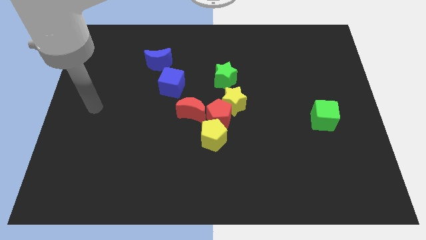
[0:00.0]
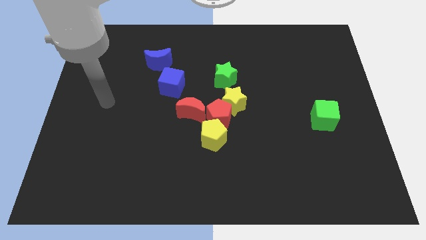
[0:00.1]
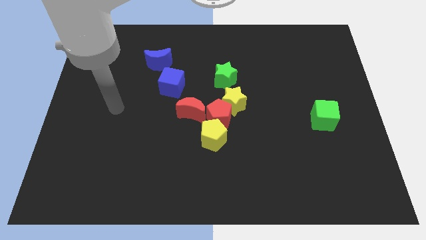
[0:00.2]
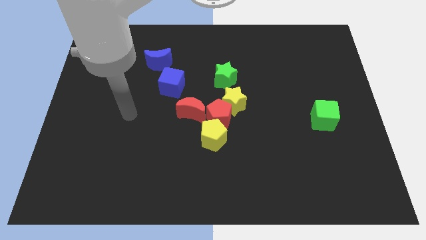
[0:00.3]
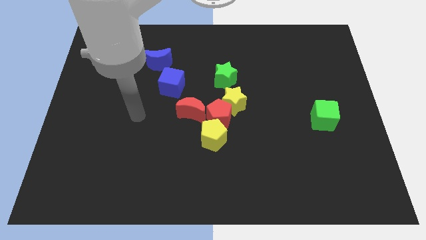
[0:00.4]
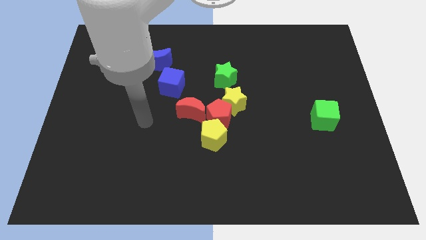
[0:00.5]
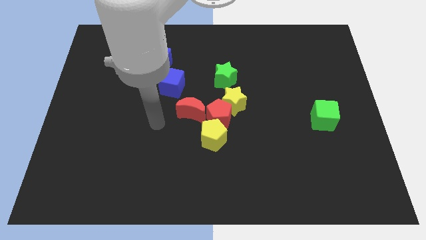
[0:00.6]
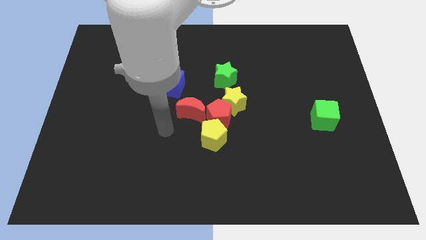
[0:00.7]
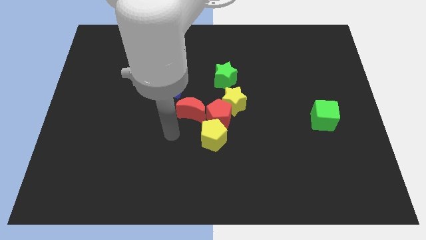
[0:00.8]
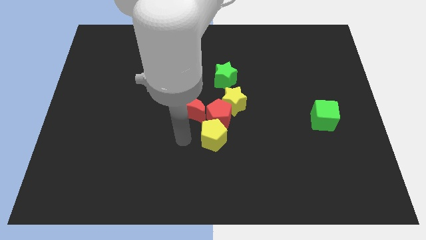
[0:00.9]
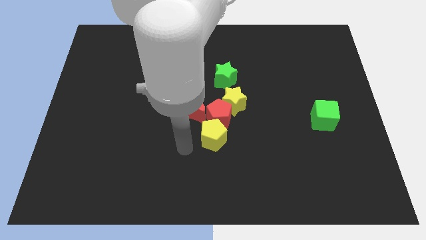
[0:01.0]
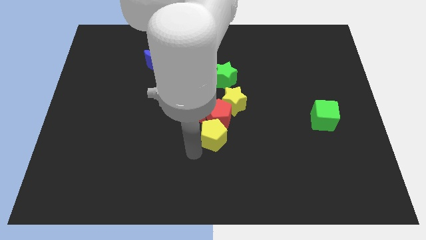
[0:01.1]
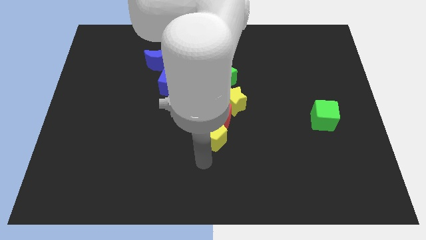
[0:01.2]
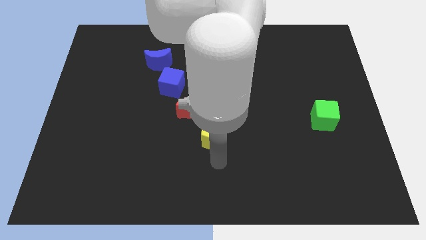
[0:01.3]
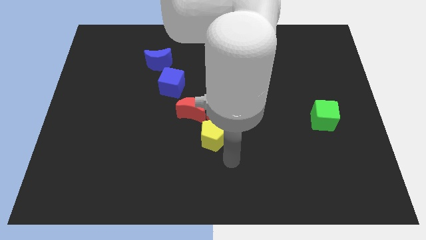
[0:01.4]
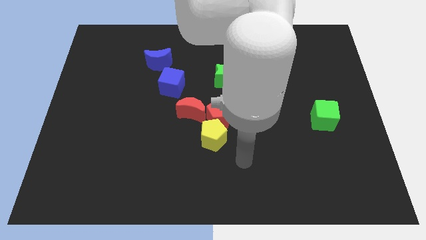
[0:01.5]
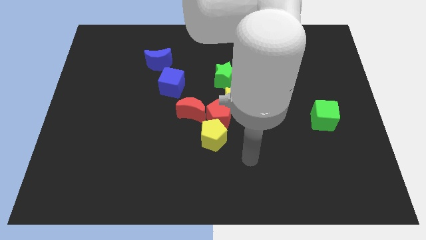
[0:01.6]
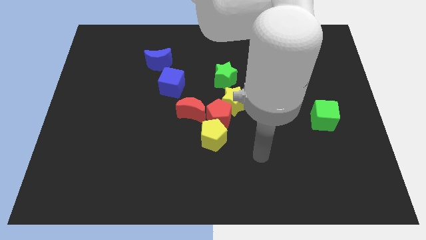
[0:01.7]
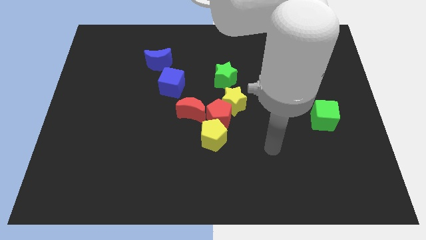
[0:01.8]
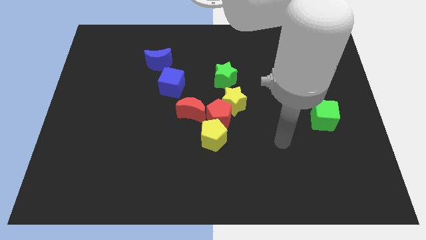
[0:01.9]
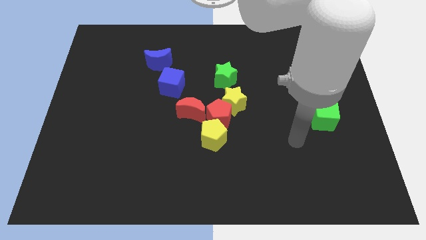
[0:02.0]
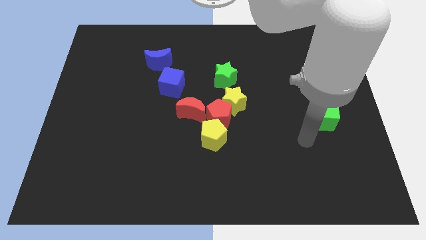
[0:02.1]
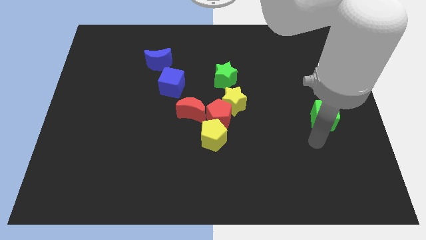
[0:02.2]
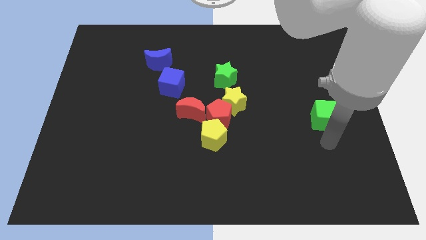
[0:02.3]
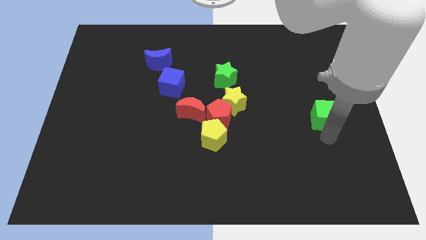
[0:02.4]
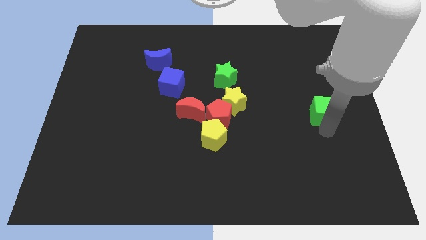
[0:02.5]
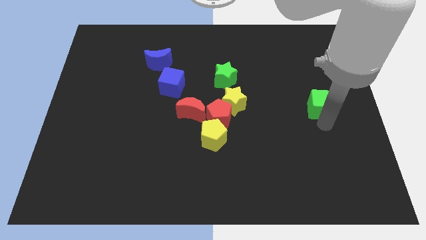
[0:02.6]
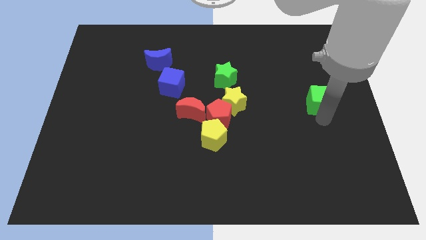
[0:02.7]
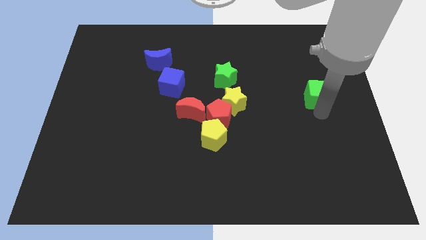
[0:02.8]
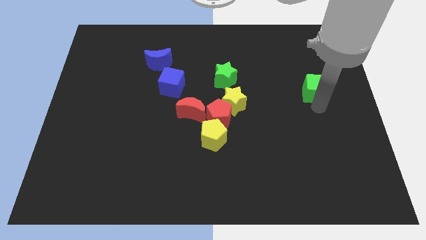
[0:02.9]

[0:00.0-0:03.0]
slightly move the green cube upwards

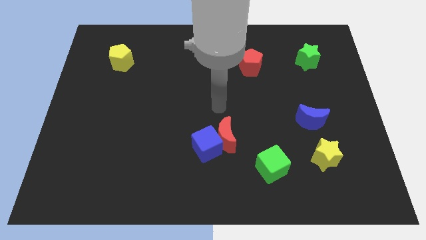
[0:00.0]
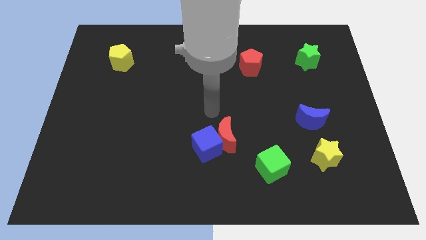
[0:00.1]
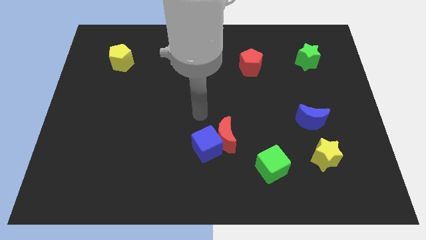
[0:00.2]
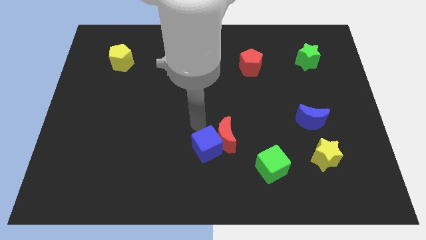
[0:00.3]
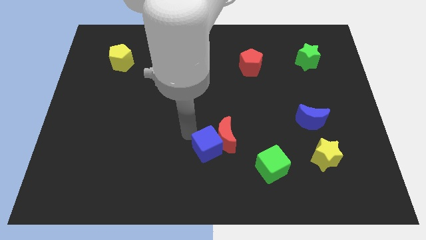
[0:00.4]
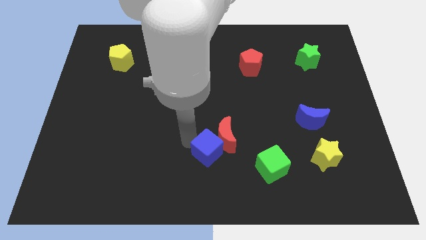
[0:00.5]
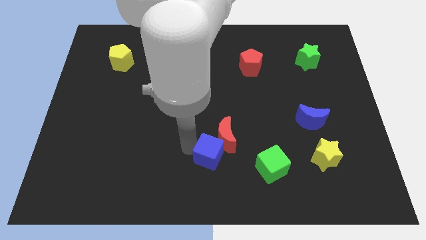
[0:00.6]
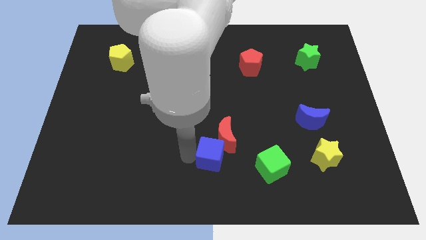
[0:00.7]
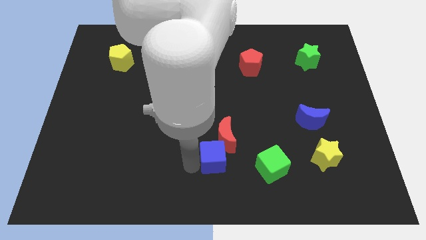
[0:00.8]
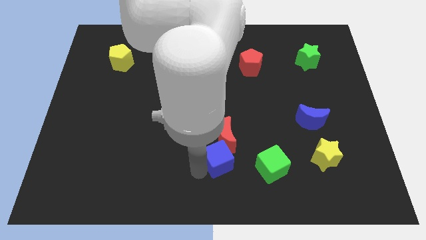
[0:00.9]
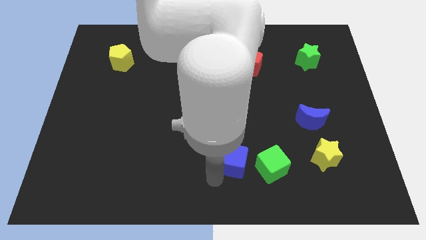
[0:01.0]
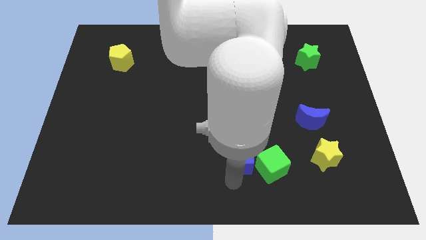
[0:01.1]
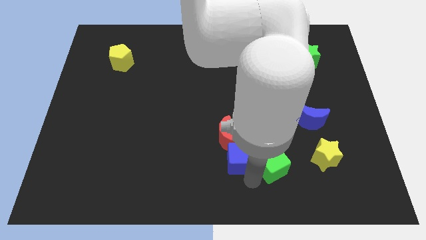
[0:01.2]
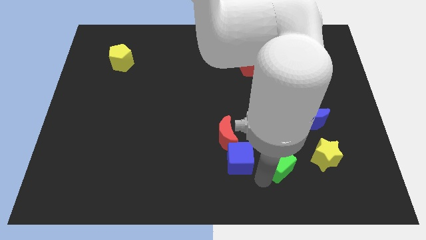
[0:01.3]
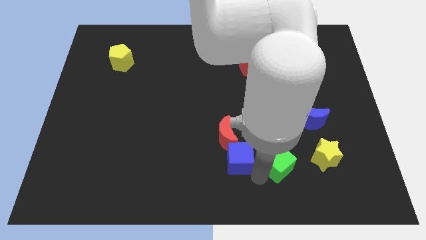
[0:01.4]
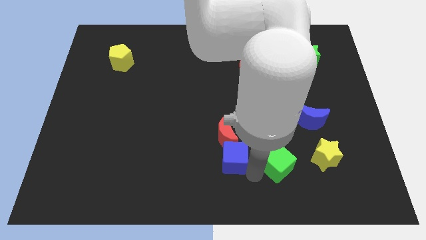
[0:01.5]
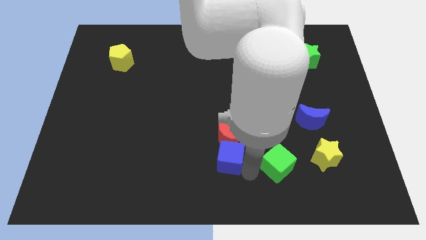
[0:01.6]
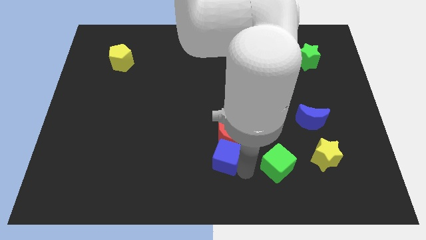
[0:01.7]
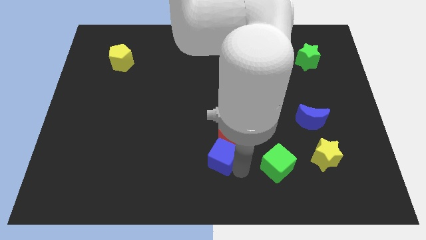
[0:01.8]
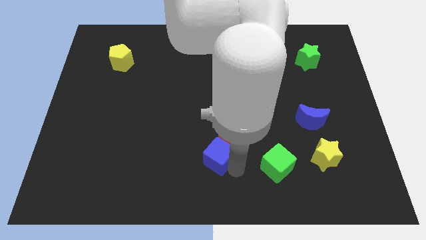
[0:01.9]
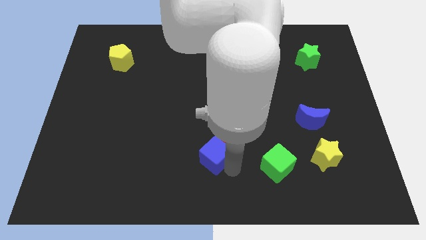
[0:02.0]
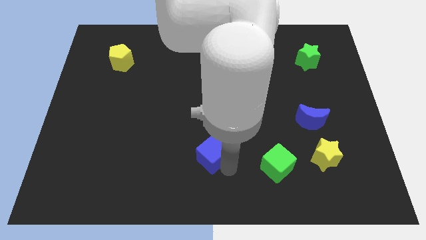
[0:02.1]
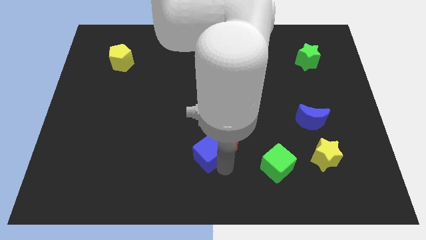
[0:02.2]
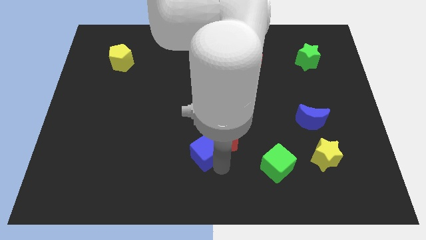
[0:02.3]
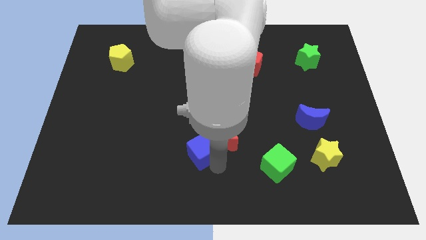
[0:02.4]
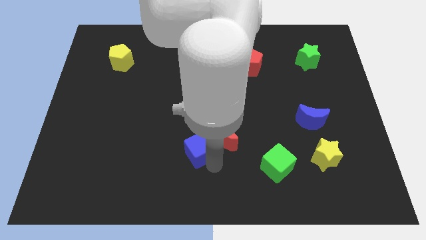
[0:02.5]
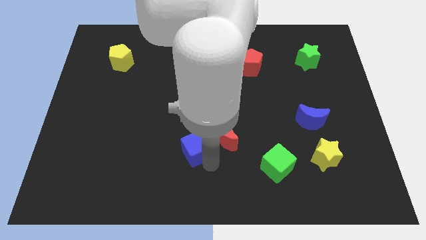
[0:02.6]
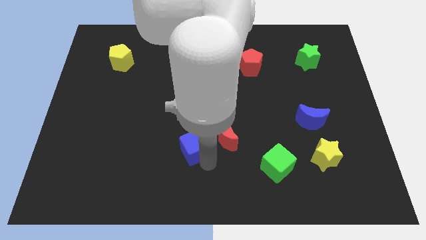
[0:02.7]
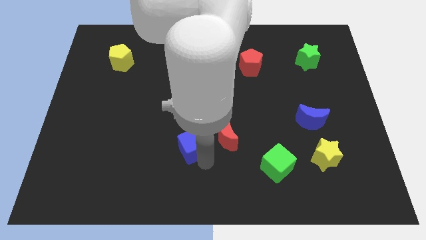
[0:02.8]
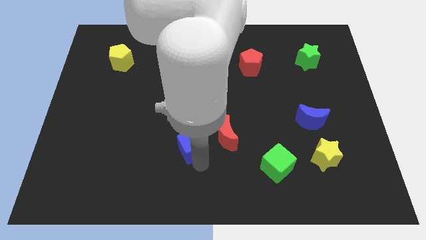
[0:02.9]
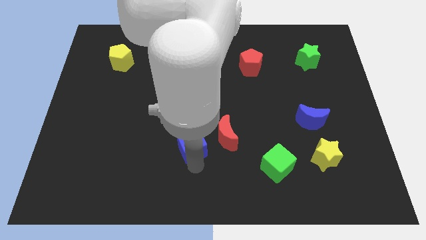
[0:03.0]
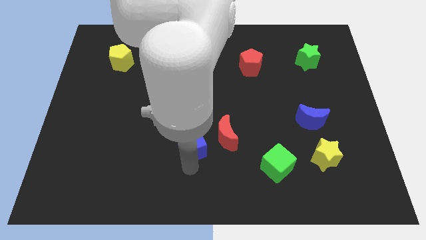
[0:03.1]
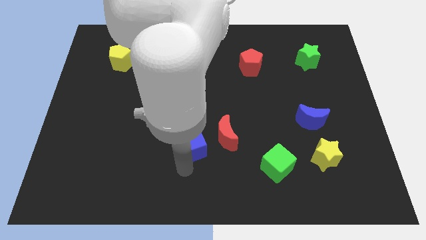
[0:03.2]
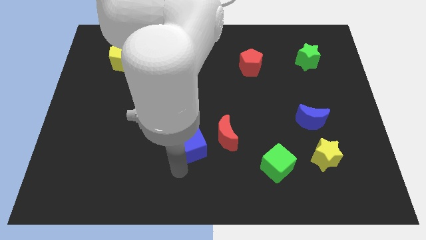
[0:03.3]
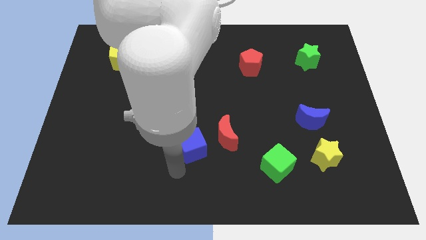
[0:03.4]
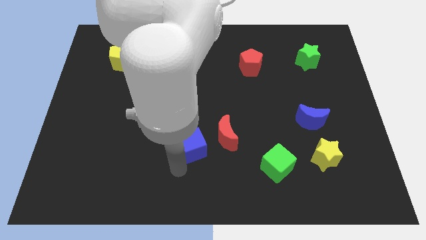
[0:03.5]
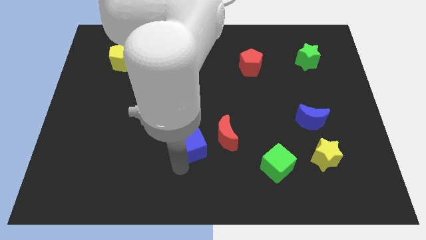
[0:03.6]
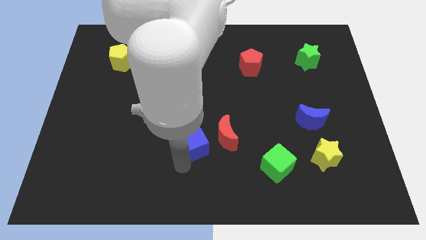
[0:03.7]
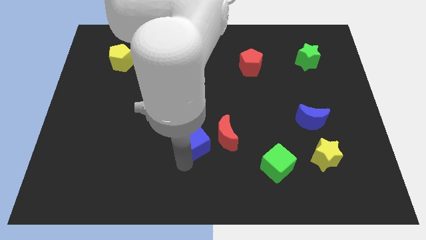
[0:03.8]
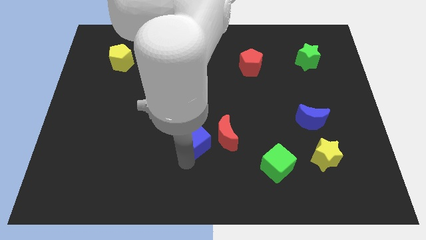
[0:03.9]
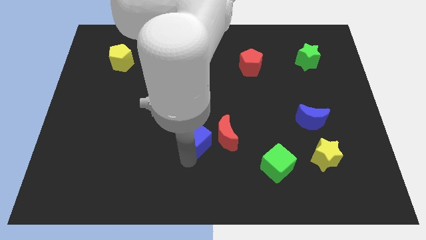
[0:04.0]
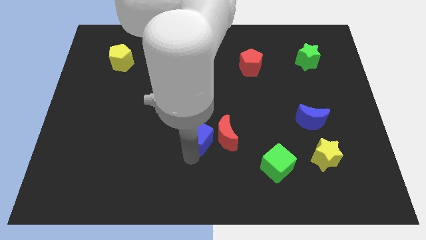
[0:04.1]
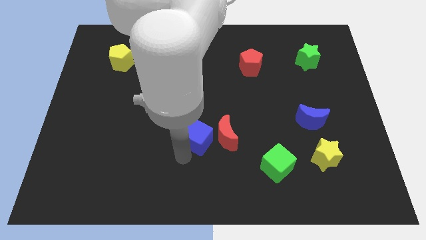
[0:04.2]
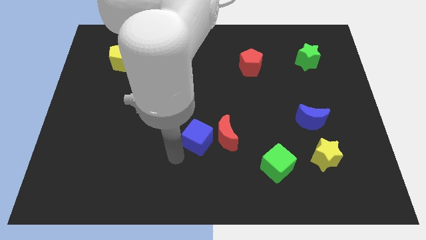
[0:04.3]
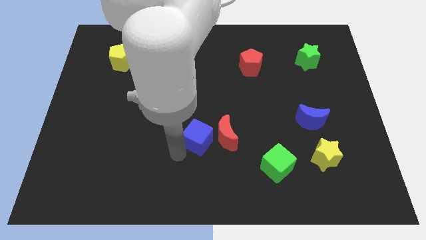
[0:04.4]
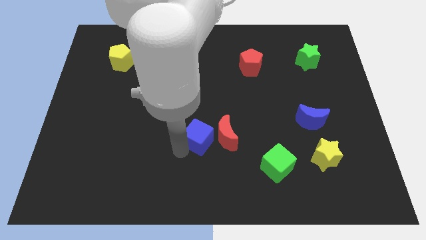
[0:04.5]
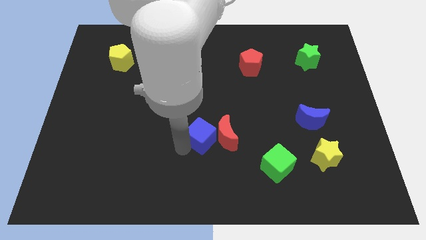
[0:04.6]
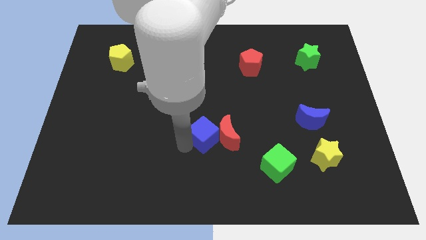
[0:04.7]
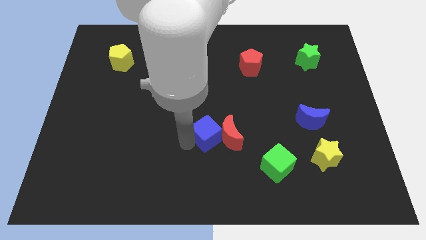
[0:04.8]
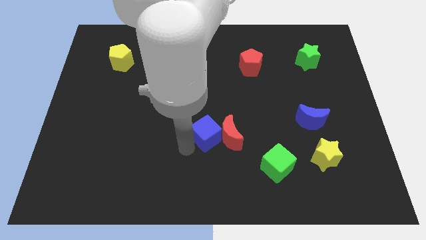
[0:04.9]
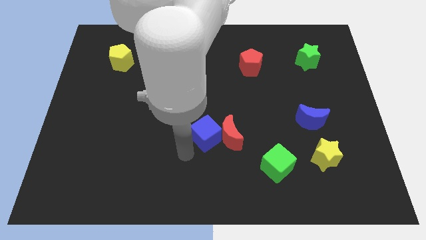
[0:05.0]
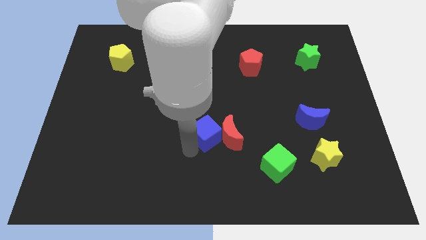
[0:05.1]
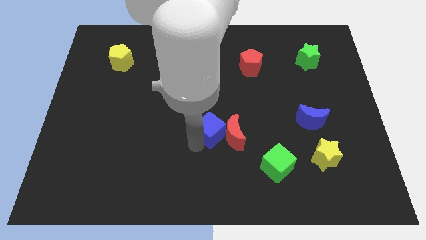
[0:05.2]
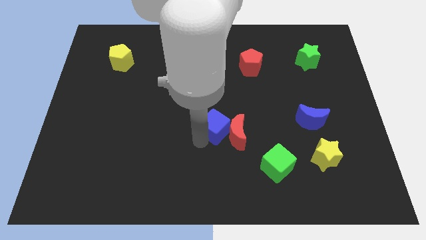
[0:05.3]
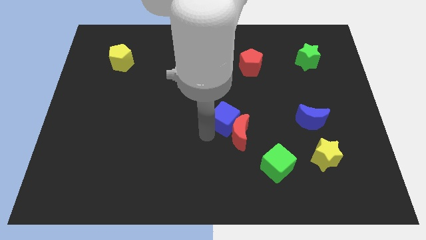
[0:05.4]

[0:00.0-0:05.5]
push the blue cube a little bit up and right
